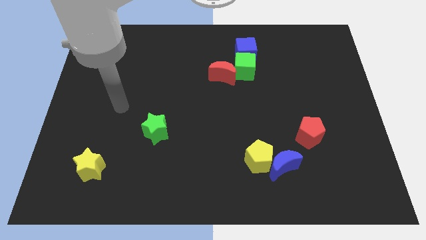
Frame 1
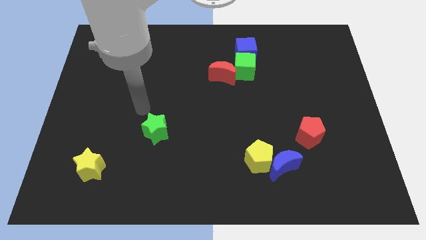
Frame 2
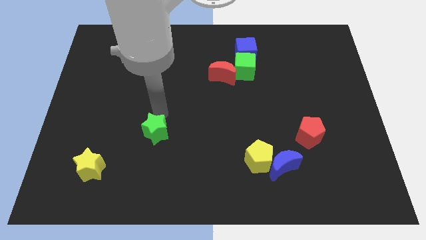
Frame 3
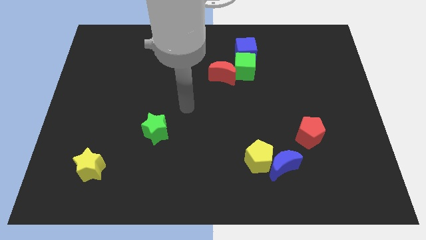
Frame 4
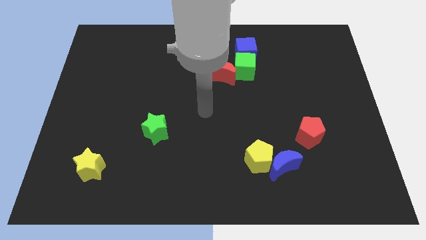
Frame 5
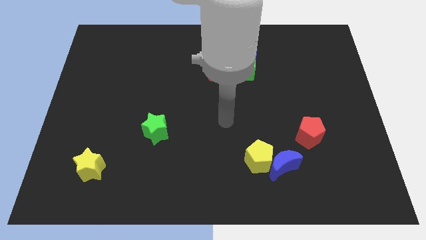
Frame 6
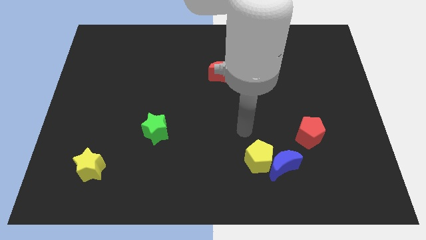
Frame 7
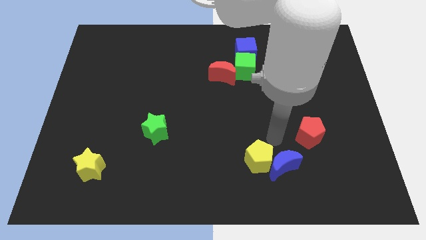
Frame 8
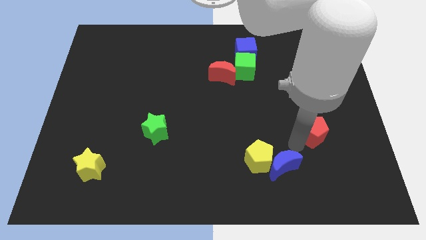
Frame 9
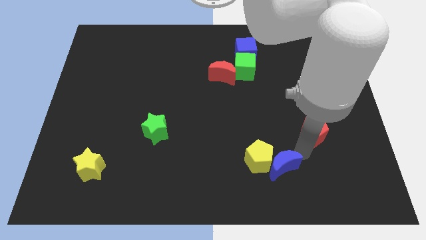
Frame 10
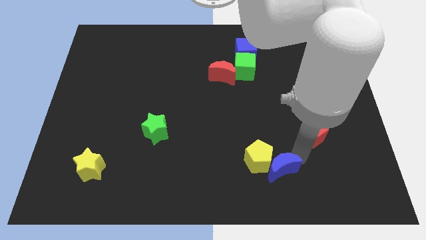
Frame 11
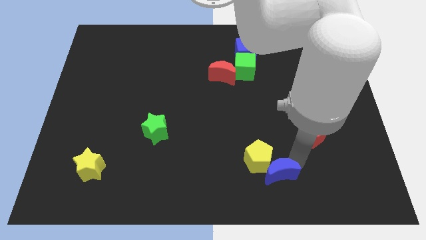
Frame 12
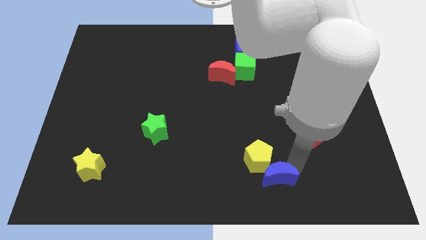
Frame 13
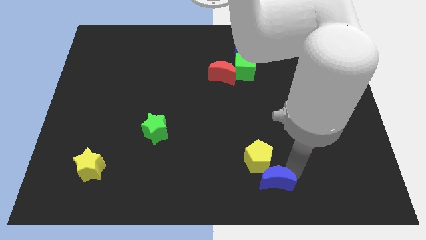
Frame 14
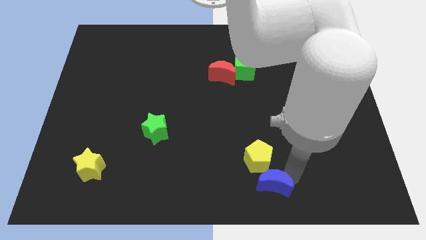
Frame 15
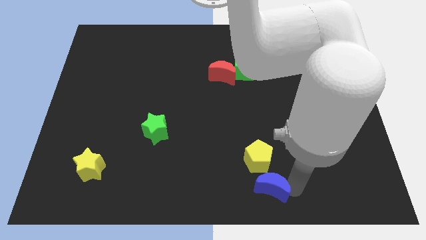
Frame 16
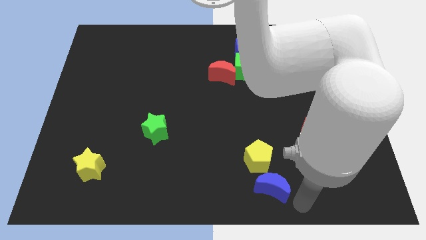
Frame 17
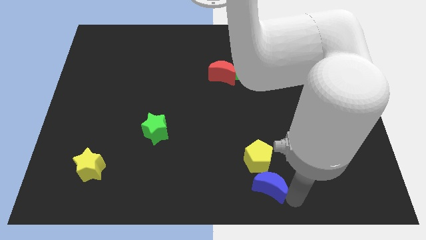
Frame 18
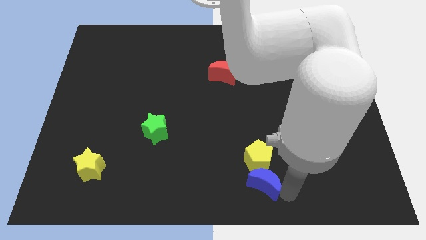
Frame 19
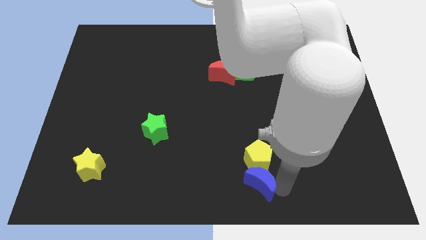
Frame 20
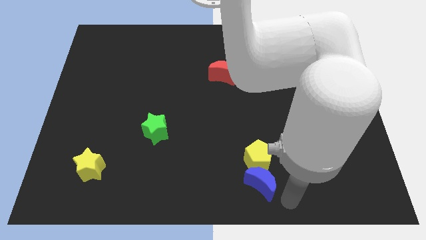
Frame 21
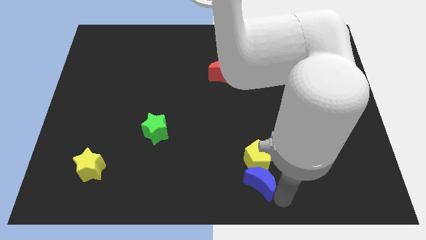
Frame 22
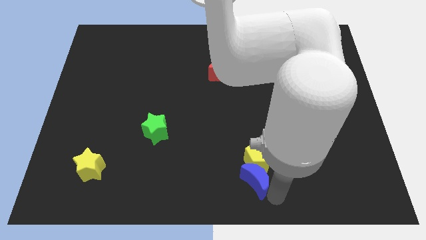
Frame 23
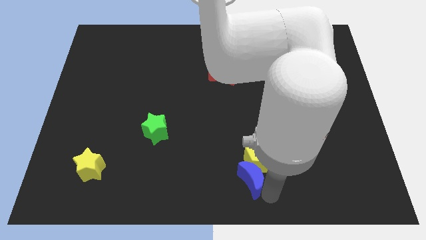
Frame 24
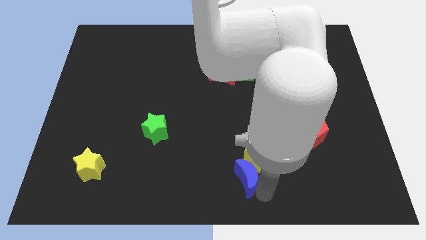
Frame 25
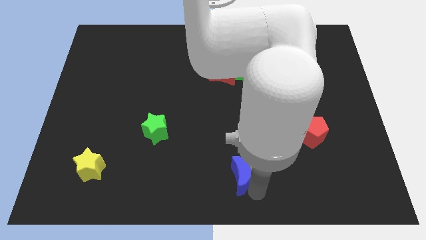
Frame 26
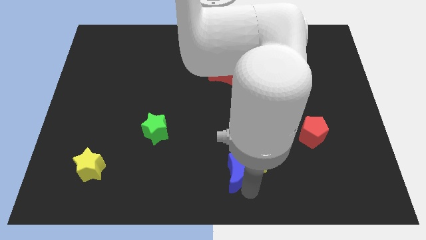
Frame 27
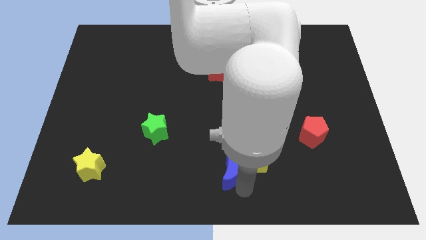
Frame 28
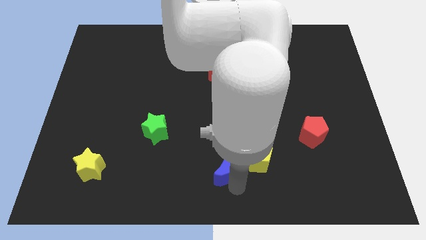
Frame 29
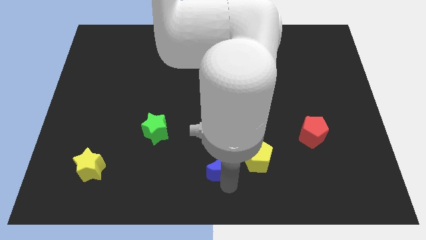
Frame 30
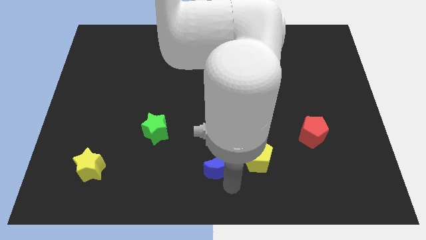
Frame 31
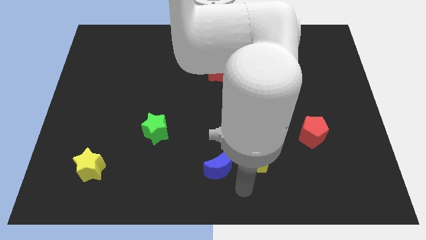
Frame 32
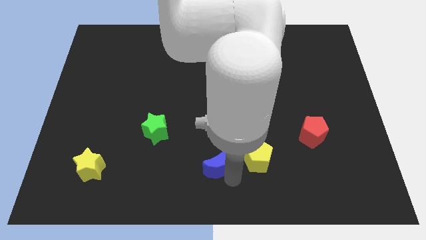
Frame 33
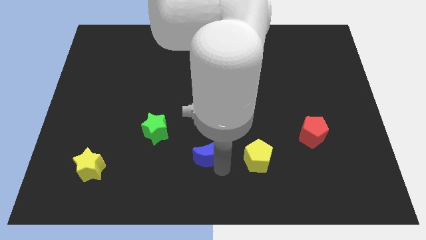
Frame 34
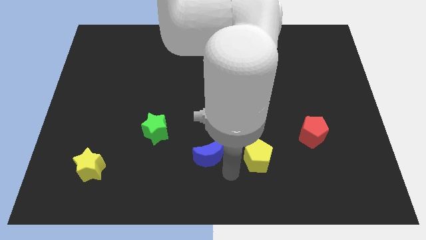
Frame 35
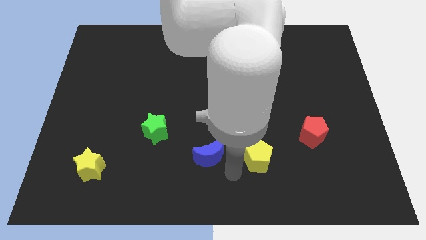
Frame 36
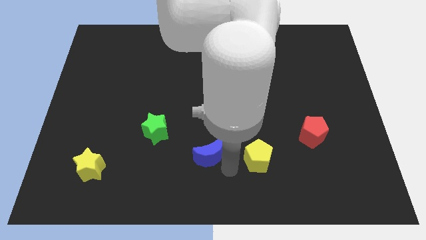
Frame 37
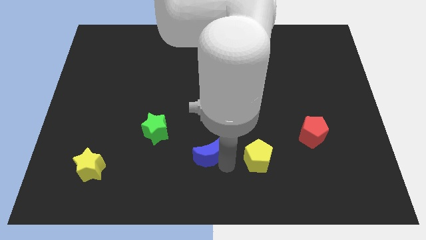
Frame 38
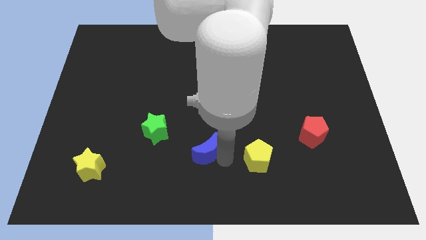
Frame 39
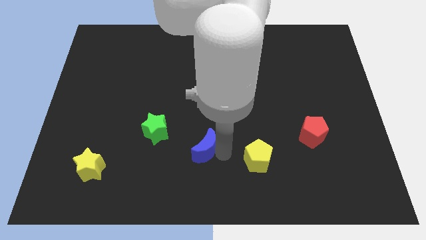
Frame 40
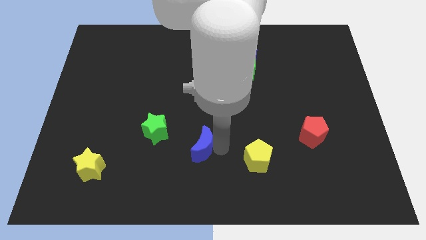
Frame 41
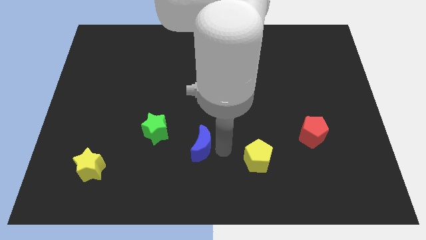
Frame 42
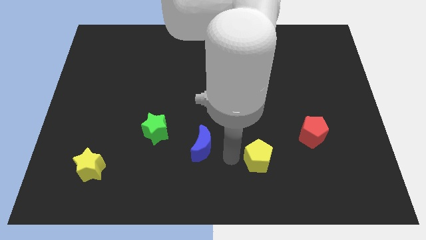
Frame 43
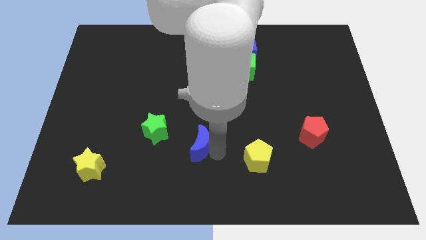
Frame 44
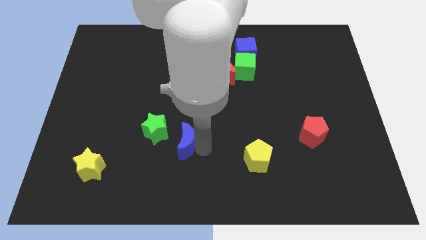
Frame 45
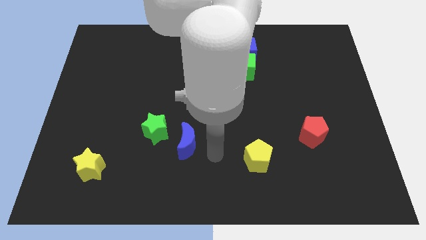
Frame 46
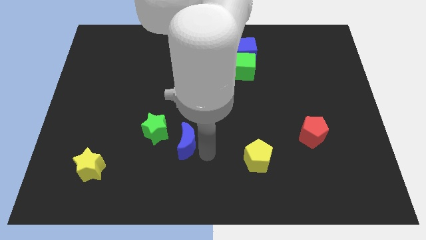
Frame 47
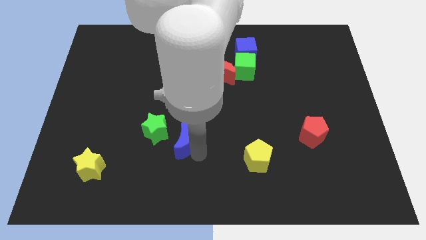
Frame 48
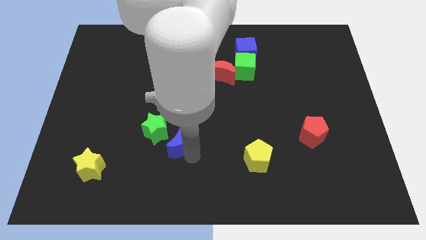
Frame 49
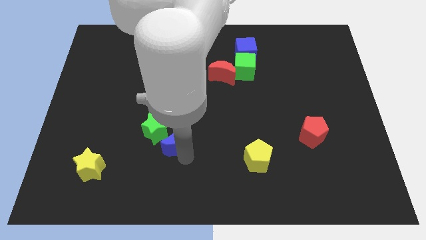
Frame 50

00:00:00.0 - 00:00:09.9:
move the blue moon close to the green star

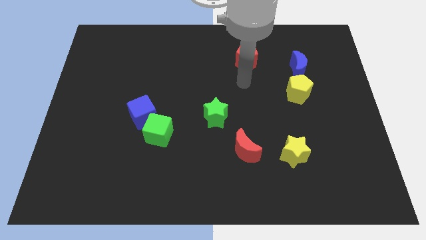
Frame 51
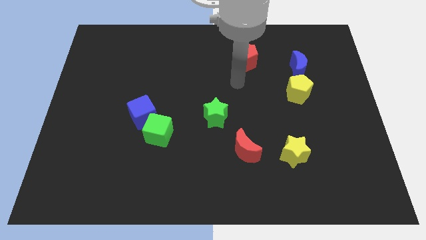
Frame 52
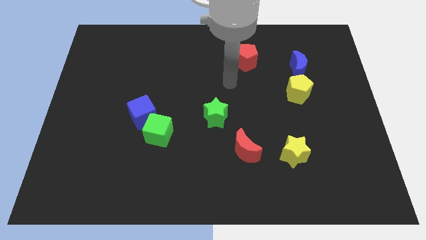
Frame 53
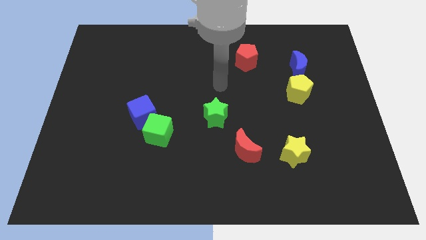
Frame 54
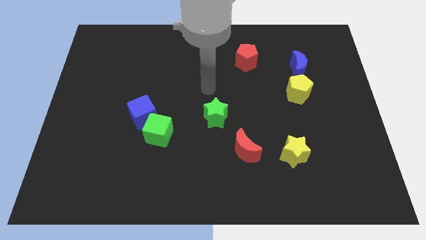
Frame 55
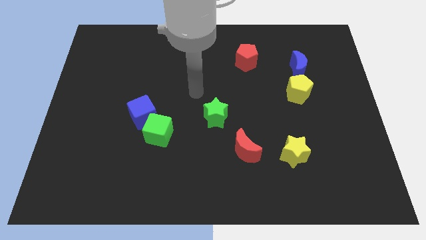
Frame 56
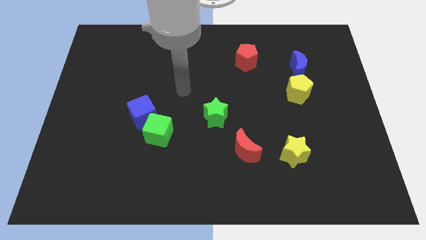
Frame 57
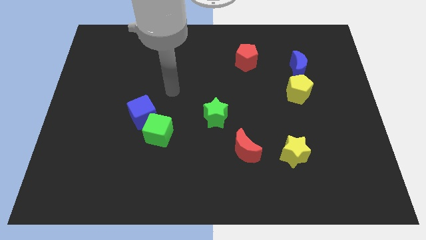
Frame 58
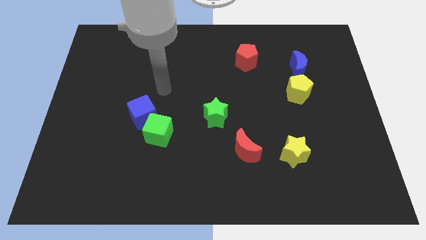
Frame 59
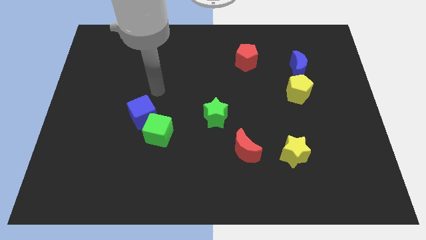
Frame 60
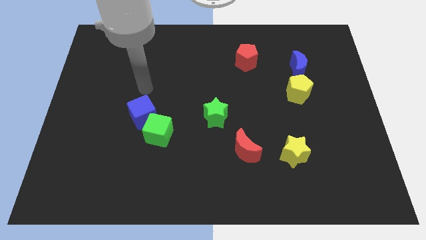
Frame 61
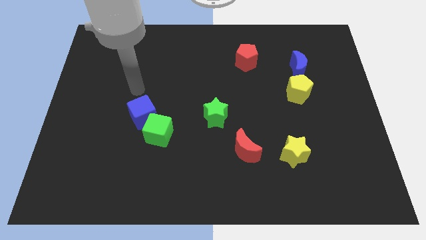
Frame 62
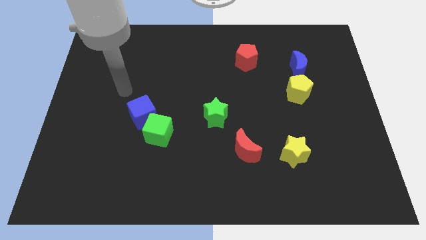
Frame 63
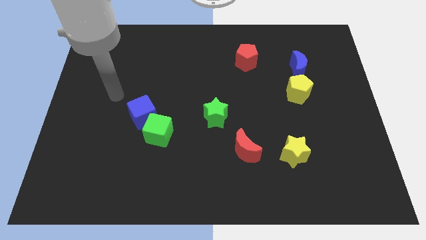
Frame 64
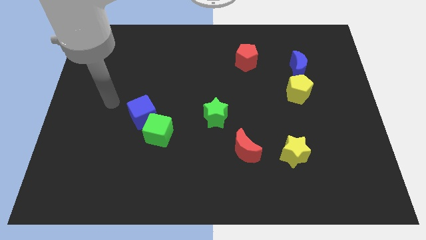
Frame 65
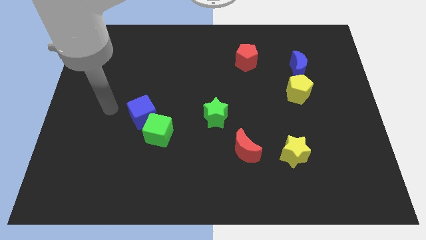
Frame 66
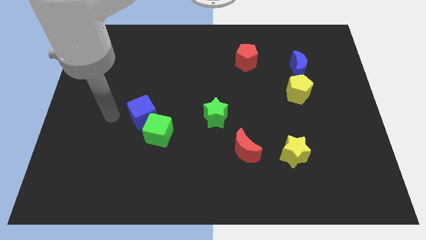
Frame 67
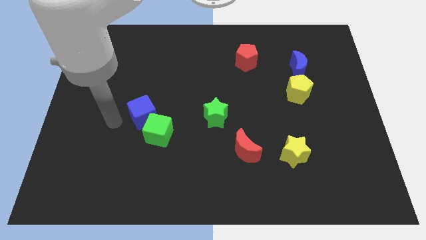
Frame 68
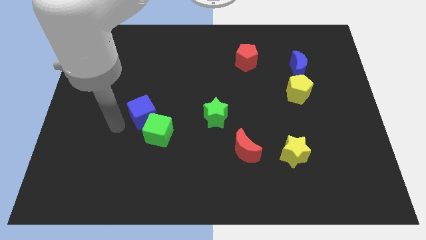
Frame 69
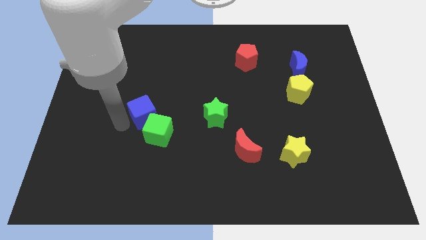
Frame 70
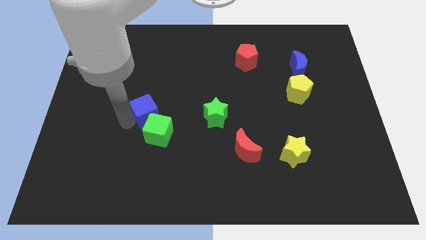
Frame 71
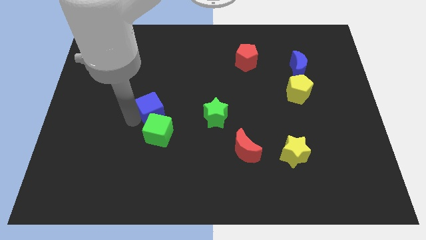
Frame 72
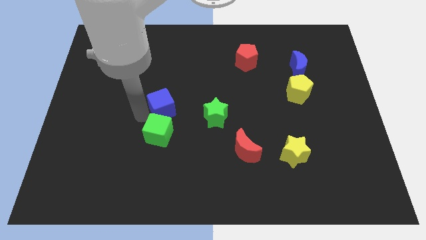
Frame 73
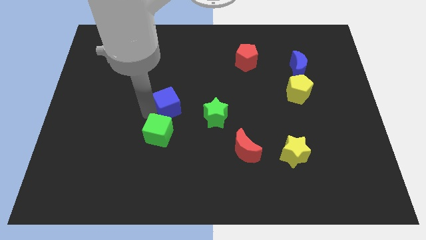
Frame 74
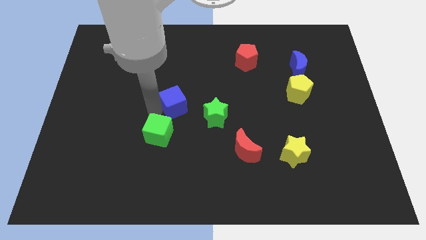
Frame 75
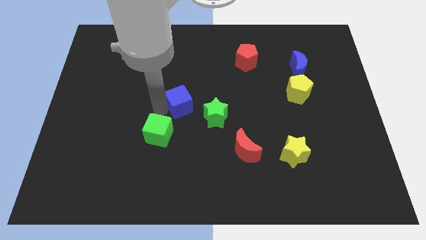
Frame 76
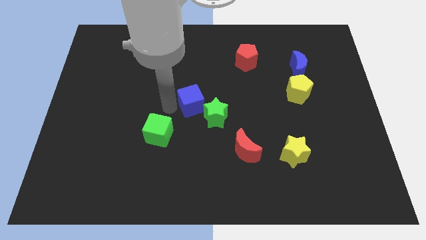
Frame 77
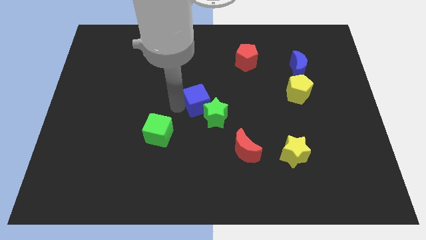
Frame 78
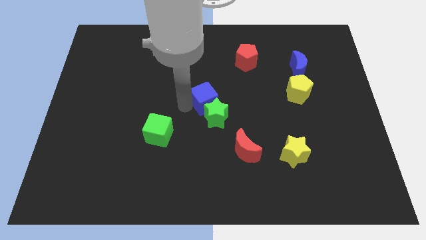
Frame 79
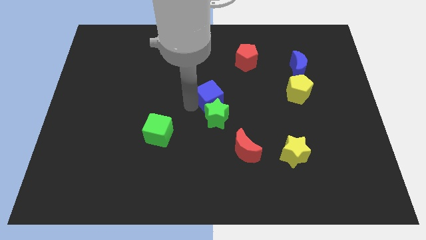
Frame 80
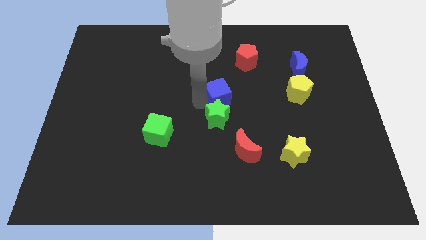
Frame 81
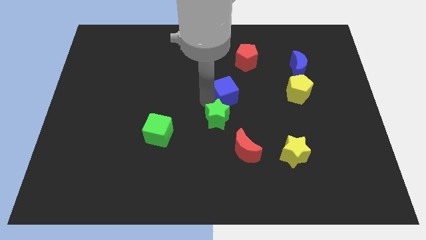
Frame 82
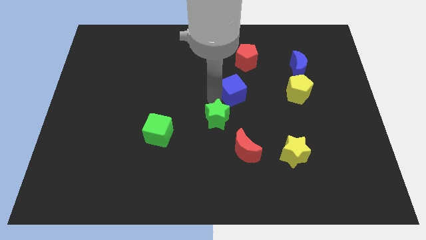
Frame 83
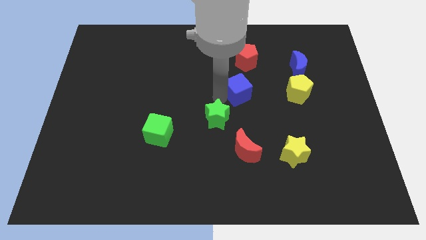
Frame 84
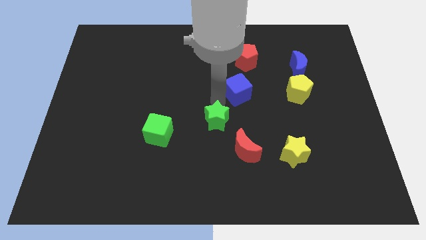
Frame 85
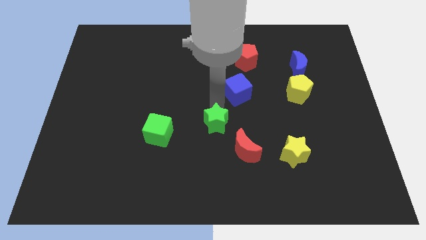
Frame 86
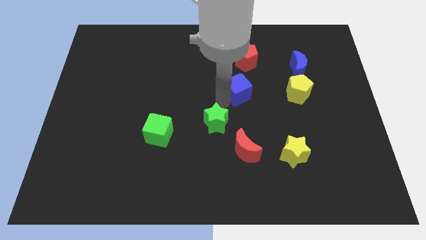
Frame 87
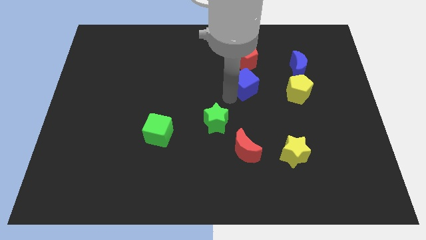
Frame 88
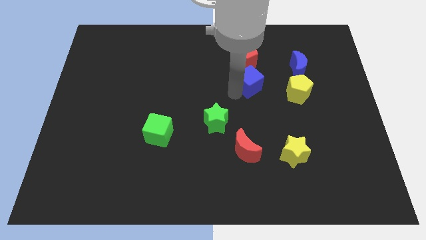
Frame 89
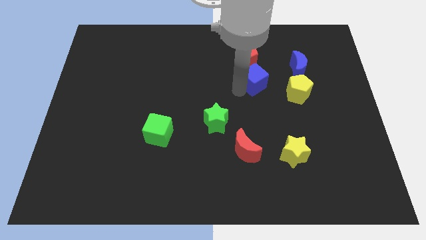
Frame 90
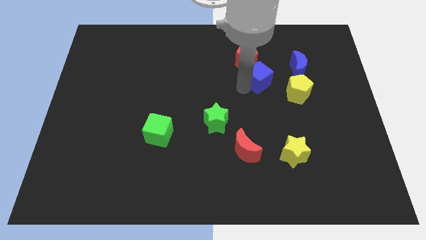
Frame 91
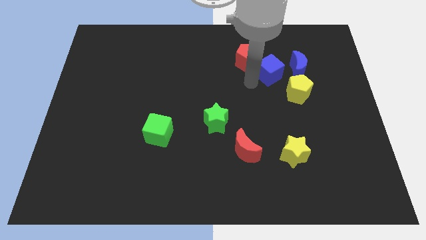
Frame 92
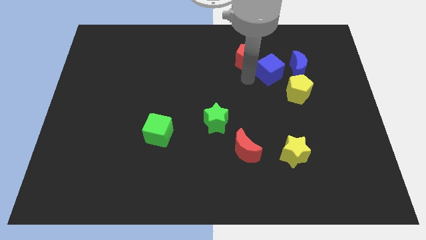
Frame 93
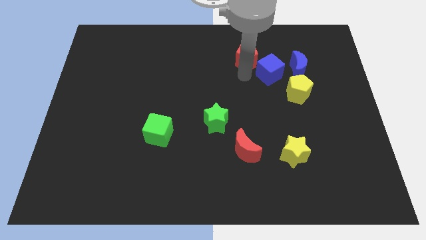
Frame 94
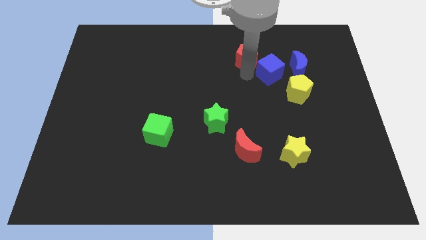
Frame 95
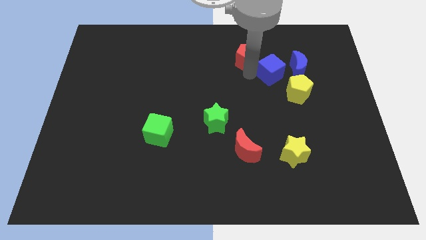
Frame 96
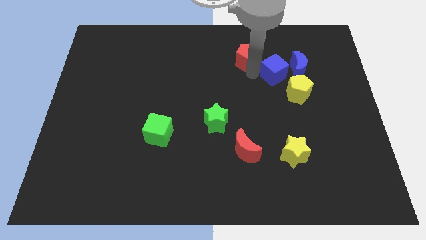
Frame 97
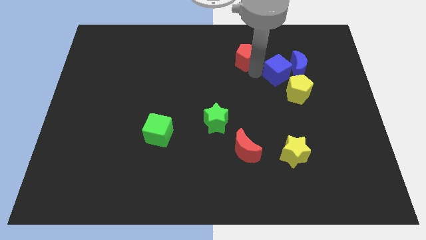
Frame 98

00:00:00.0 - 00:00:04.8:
slide the blue cube towards the blue moon
